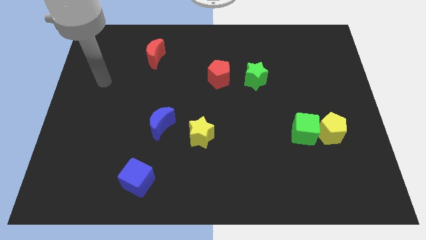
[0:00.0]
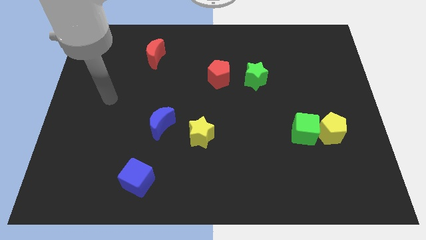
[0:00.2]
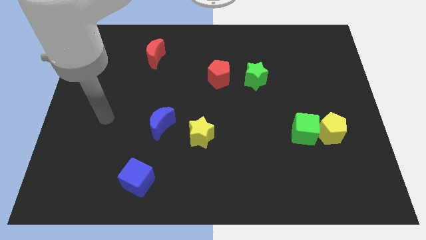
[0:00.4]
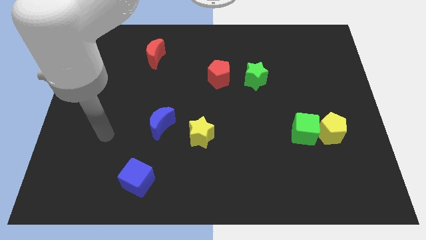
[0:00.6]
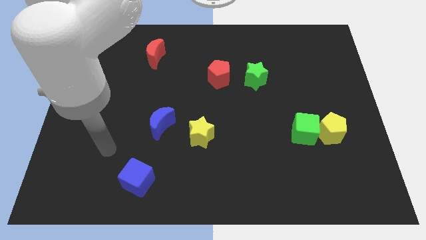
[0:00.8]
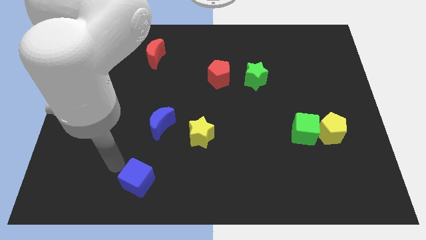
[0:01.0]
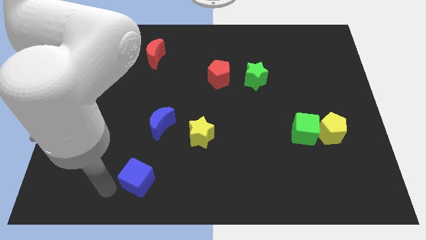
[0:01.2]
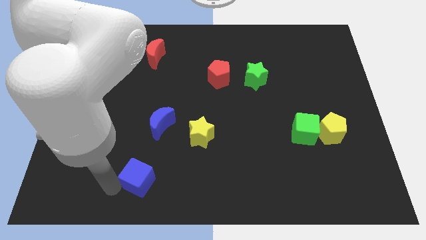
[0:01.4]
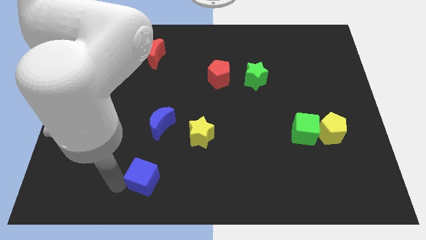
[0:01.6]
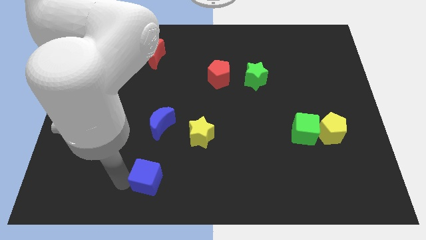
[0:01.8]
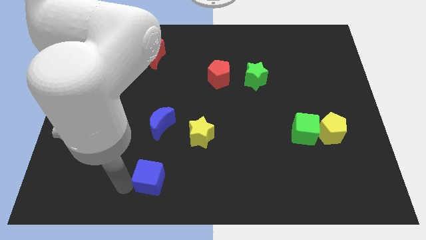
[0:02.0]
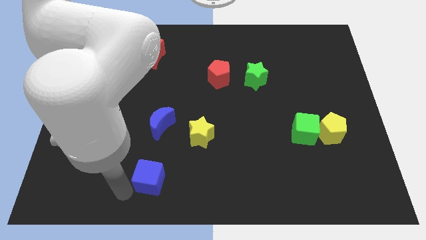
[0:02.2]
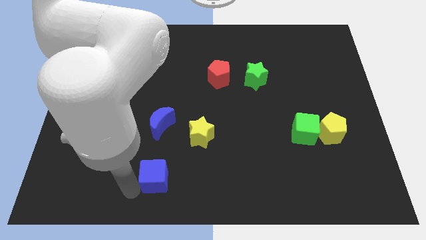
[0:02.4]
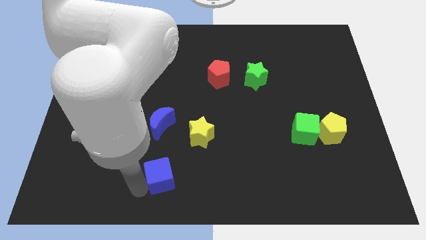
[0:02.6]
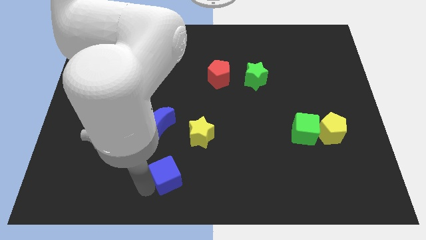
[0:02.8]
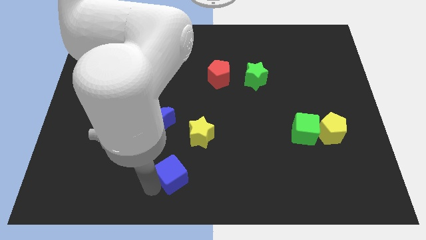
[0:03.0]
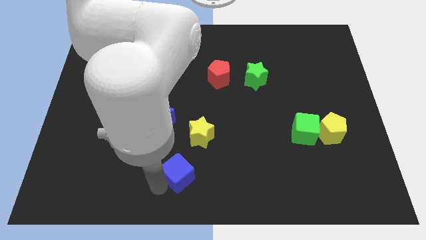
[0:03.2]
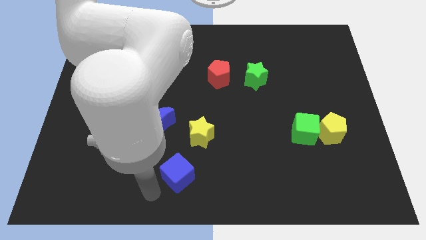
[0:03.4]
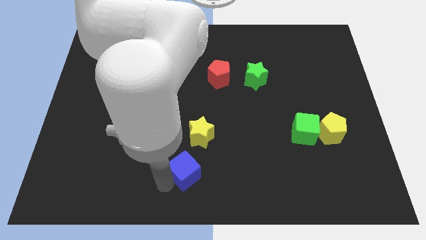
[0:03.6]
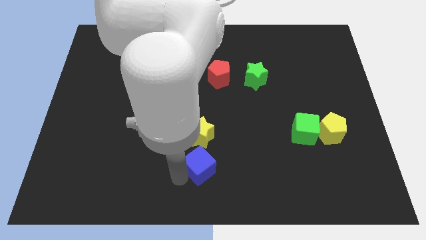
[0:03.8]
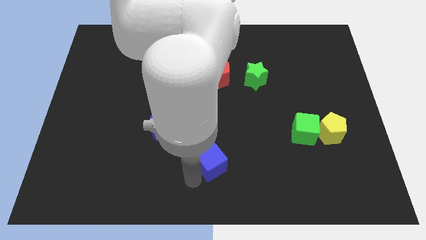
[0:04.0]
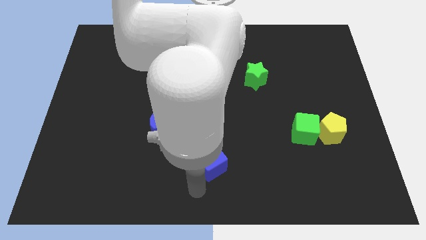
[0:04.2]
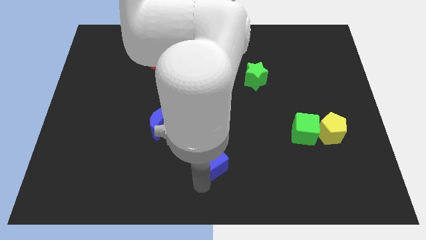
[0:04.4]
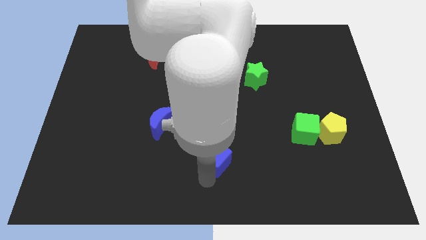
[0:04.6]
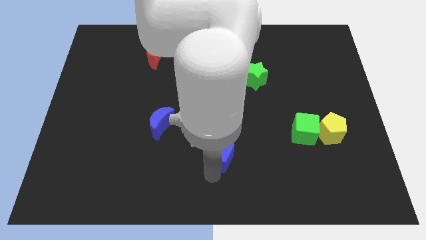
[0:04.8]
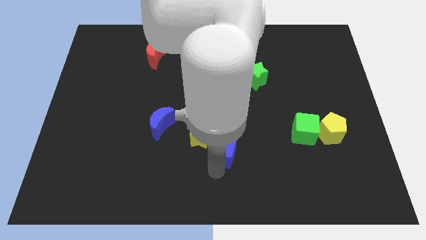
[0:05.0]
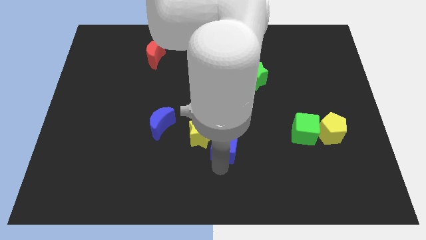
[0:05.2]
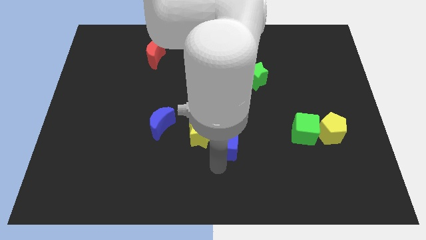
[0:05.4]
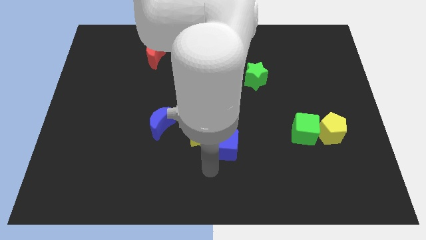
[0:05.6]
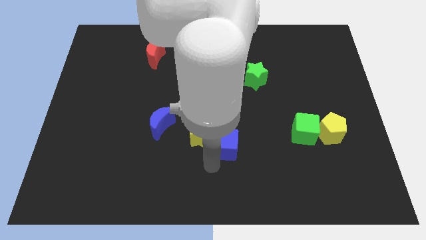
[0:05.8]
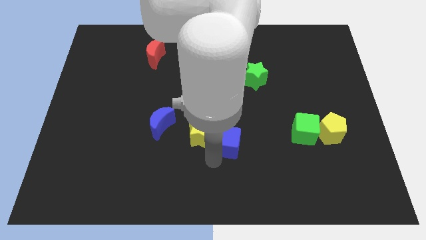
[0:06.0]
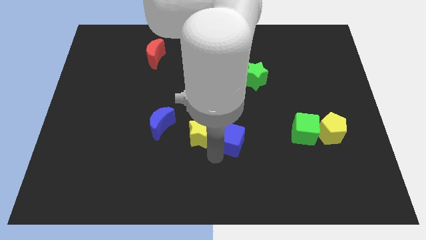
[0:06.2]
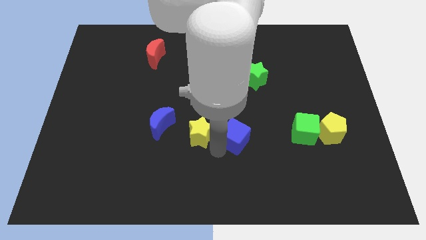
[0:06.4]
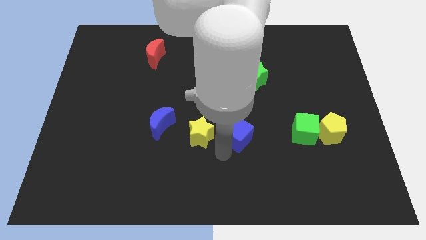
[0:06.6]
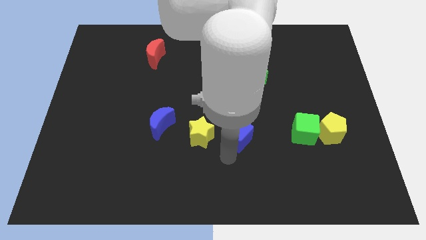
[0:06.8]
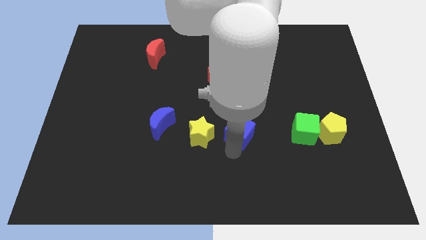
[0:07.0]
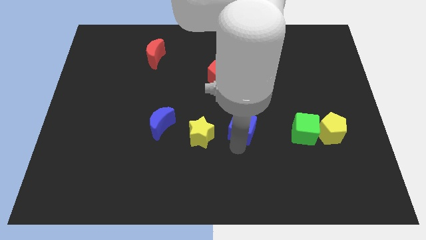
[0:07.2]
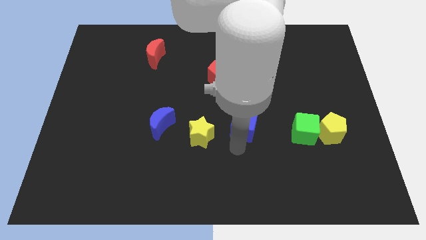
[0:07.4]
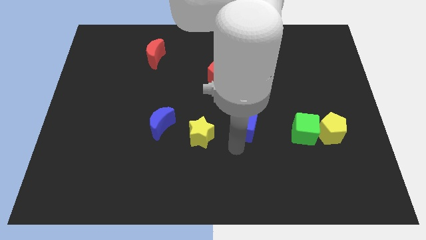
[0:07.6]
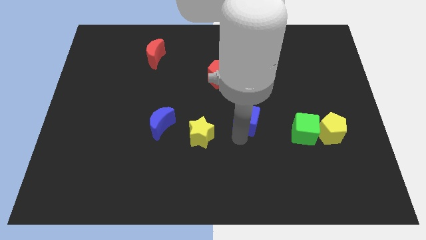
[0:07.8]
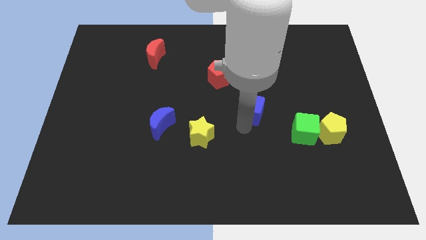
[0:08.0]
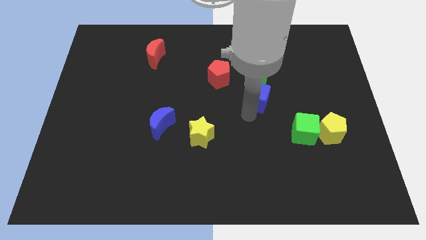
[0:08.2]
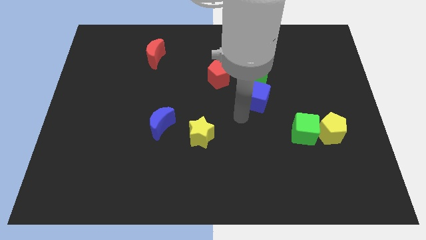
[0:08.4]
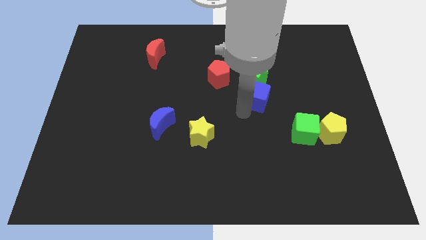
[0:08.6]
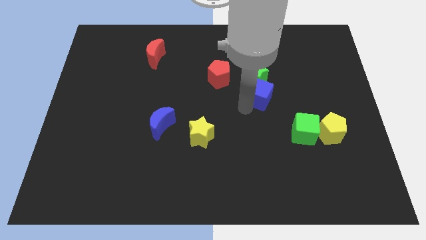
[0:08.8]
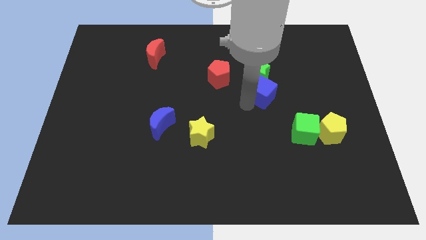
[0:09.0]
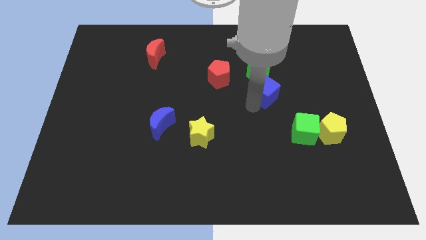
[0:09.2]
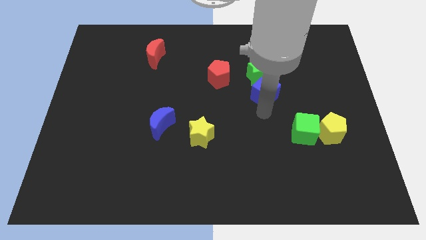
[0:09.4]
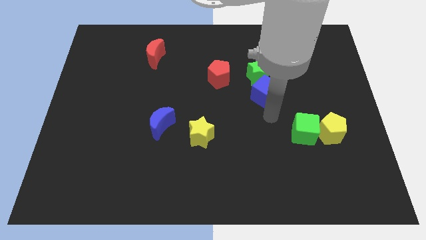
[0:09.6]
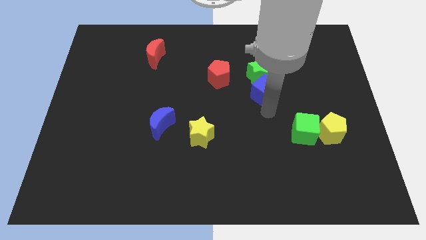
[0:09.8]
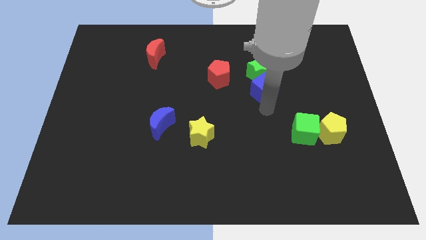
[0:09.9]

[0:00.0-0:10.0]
push the blue cube just right of the red pentagon

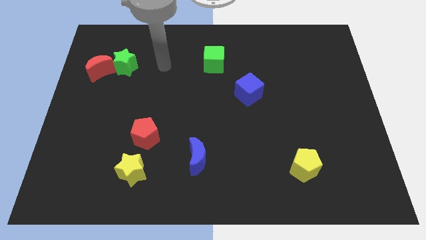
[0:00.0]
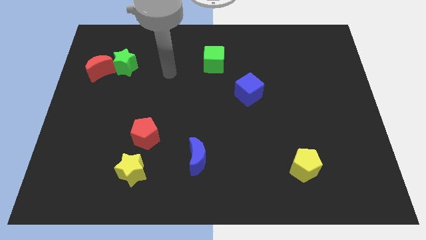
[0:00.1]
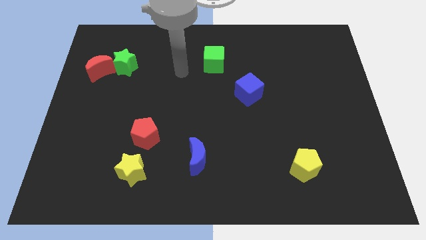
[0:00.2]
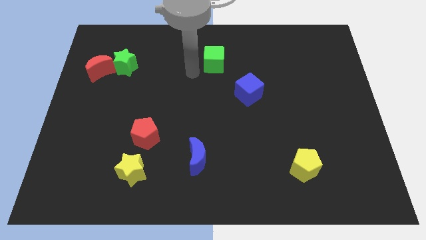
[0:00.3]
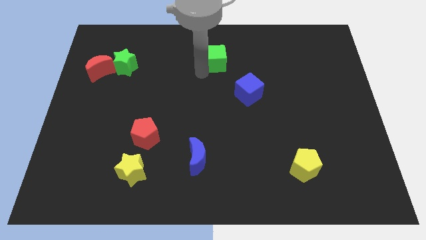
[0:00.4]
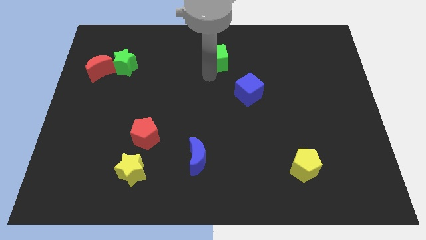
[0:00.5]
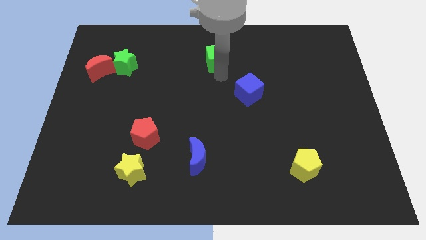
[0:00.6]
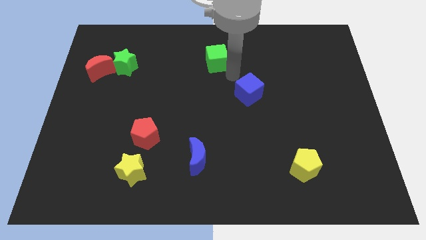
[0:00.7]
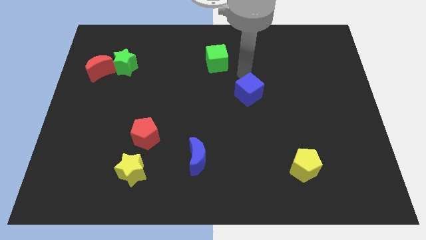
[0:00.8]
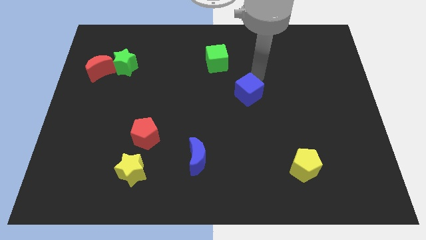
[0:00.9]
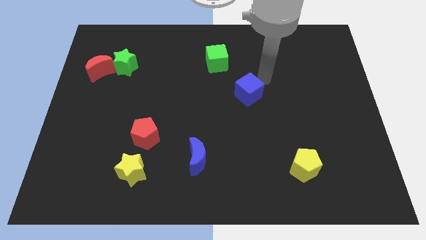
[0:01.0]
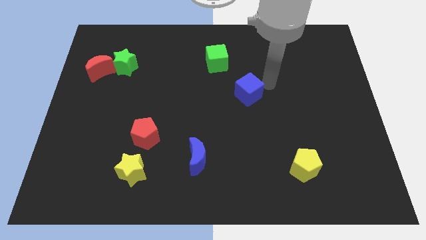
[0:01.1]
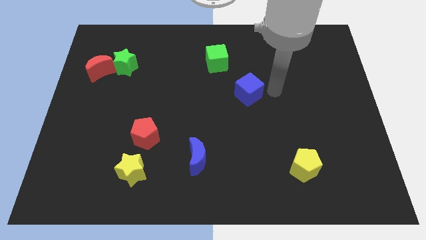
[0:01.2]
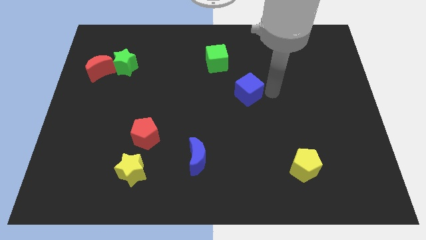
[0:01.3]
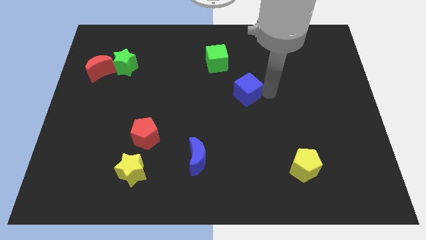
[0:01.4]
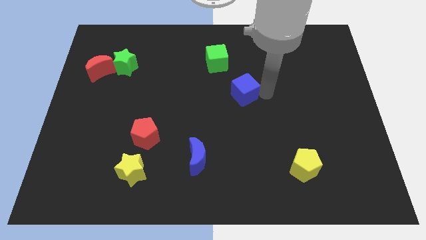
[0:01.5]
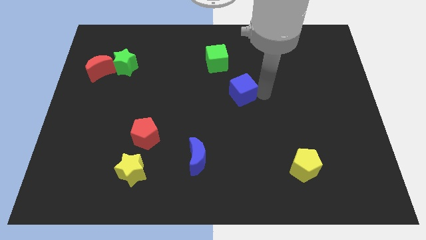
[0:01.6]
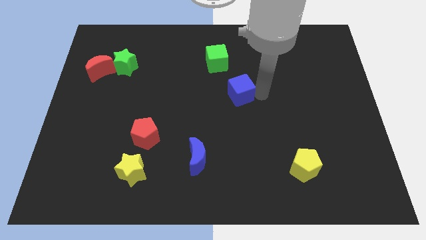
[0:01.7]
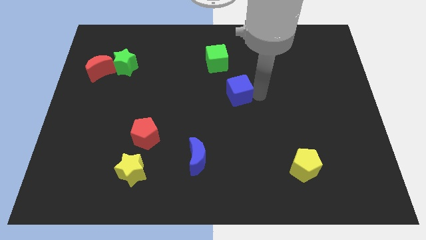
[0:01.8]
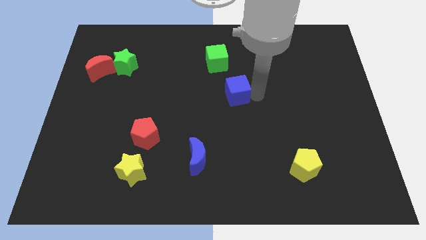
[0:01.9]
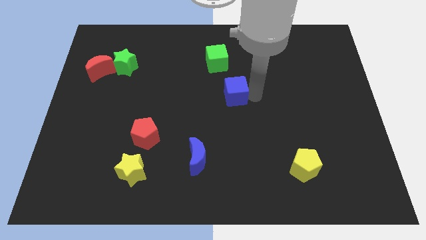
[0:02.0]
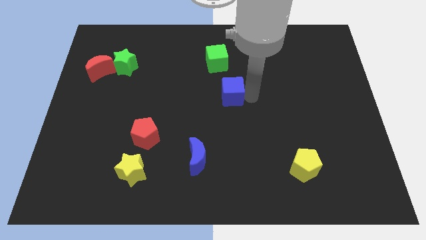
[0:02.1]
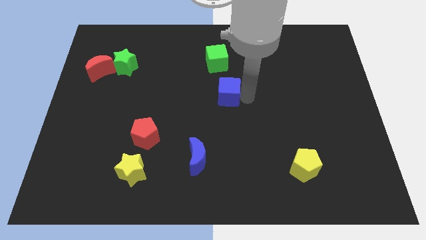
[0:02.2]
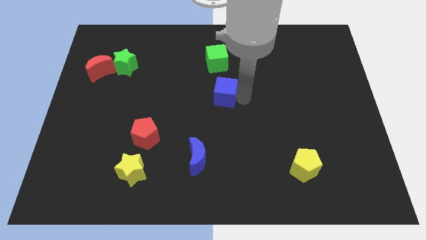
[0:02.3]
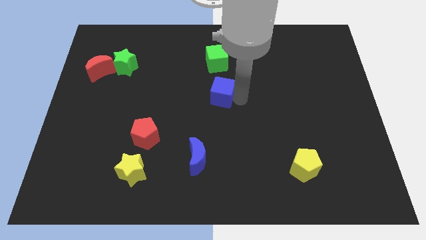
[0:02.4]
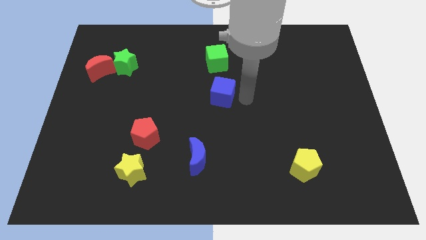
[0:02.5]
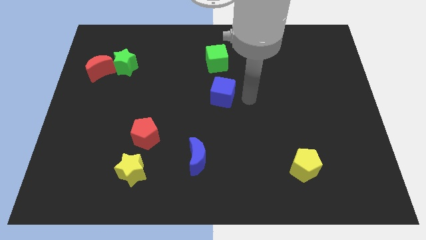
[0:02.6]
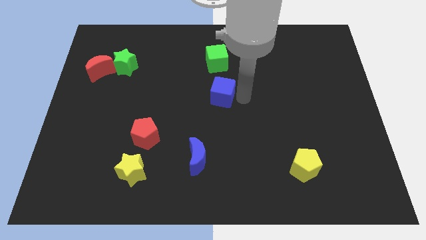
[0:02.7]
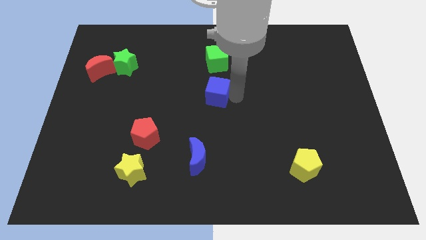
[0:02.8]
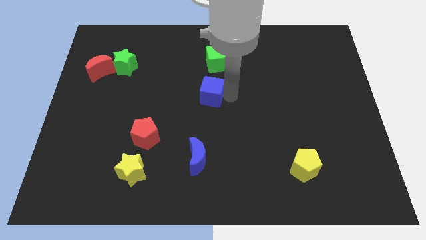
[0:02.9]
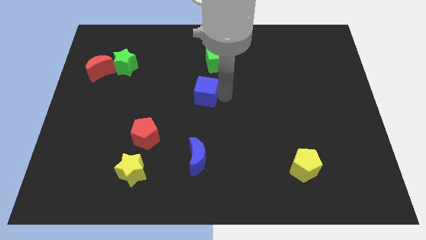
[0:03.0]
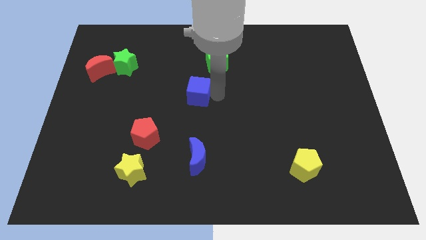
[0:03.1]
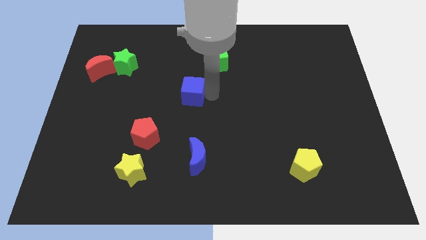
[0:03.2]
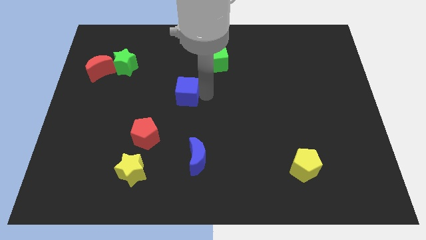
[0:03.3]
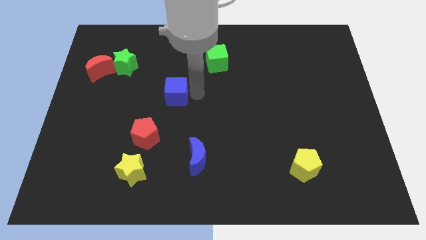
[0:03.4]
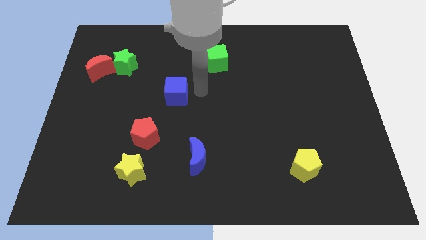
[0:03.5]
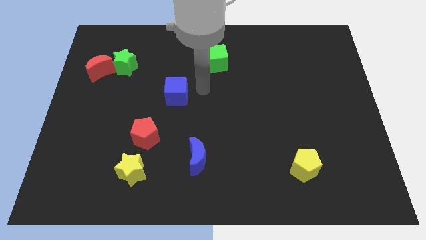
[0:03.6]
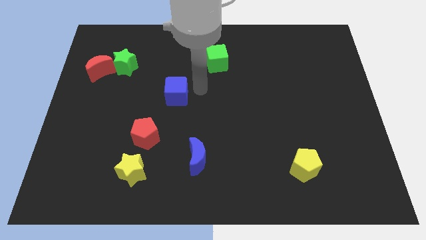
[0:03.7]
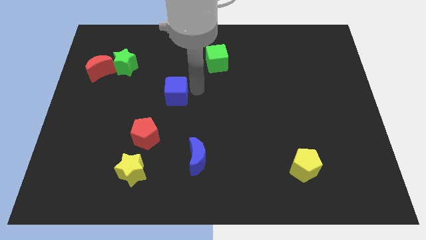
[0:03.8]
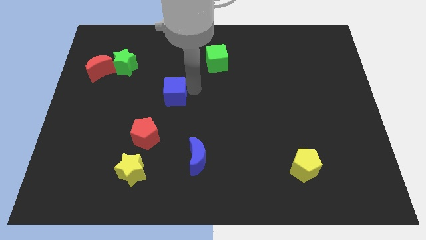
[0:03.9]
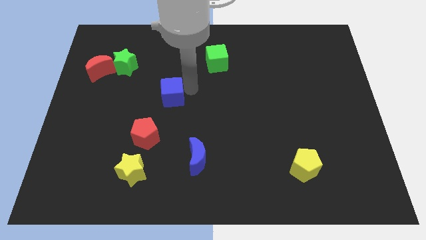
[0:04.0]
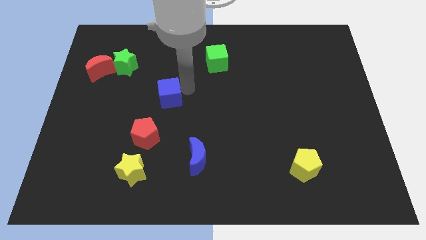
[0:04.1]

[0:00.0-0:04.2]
put the blue cube to the top of the red pentagon
